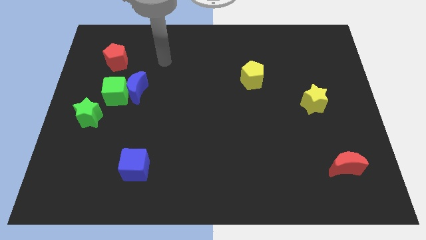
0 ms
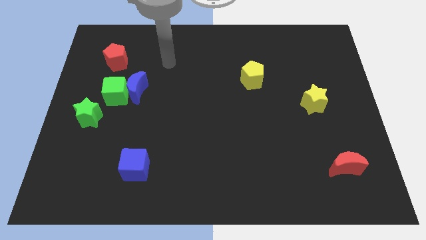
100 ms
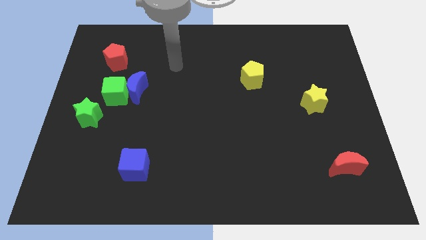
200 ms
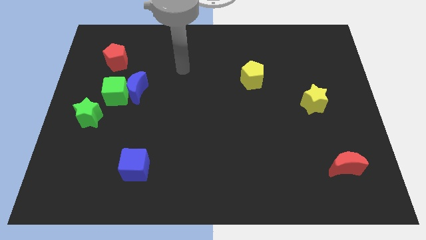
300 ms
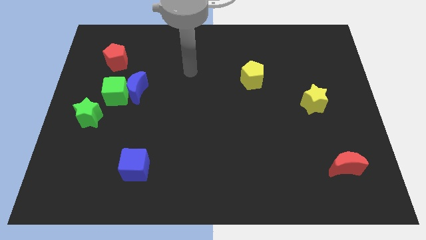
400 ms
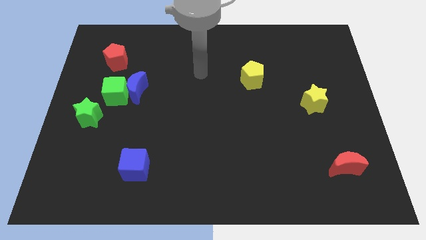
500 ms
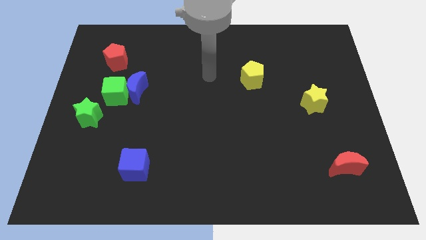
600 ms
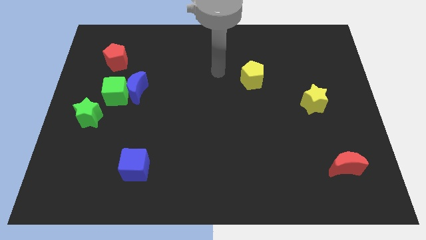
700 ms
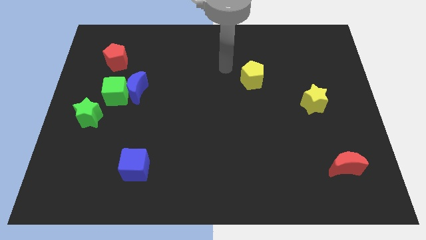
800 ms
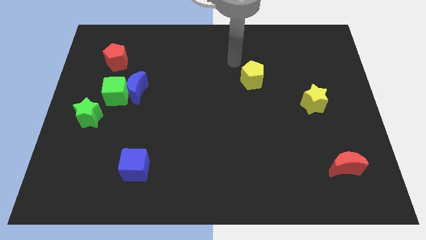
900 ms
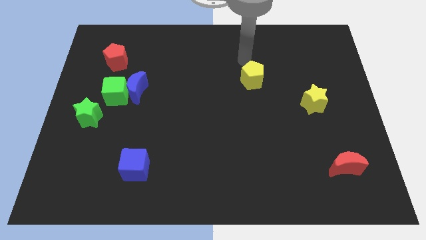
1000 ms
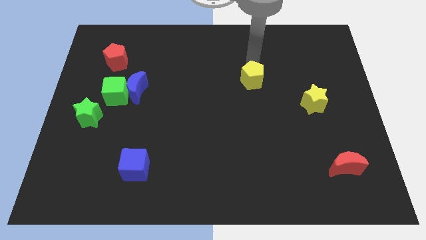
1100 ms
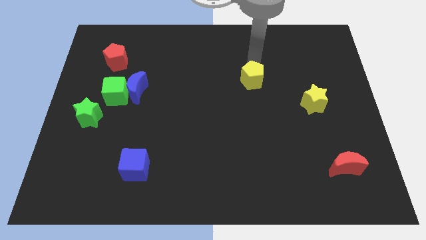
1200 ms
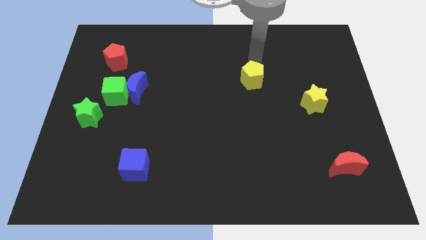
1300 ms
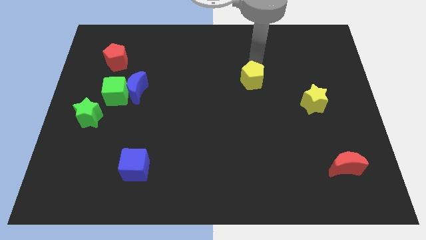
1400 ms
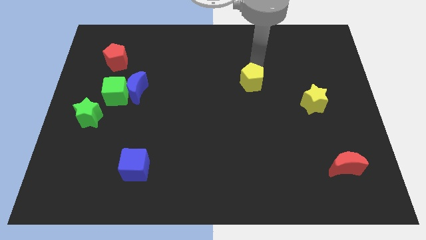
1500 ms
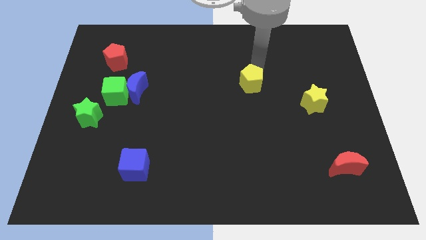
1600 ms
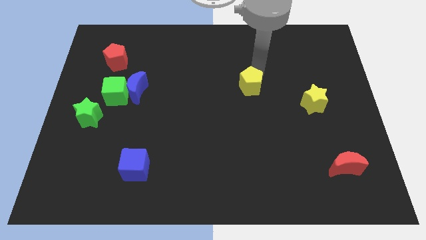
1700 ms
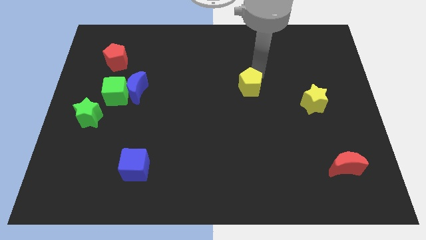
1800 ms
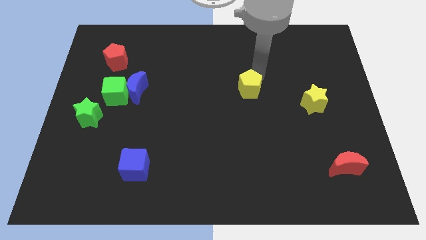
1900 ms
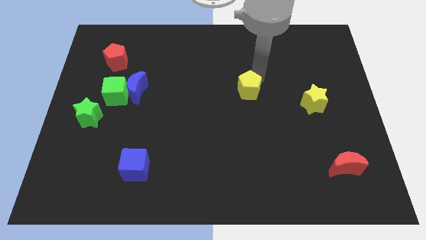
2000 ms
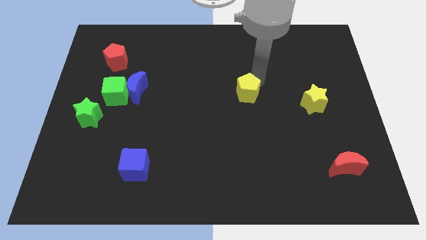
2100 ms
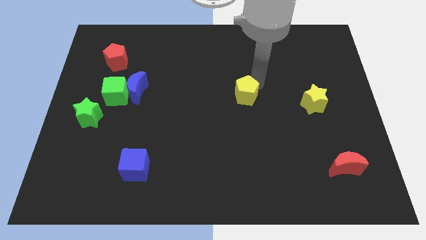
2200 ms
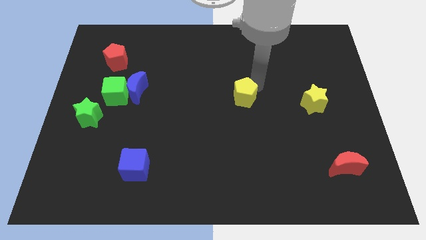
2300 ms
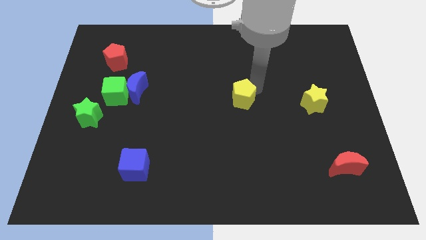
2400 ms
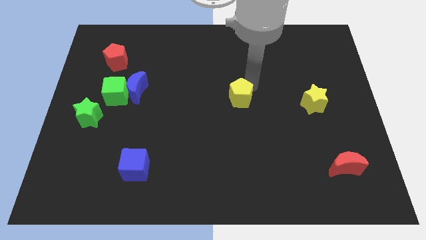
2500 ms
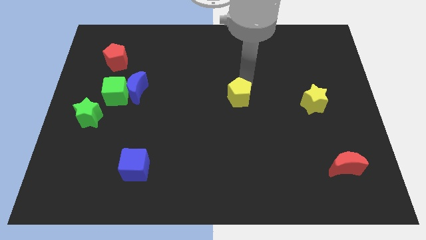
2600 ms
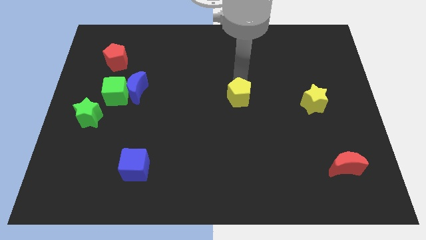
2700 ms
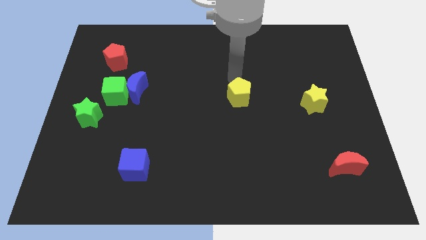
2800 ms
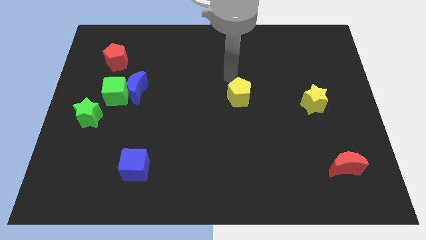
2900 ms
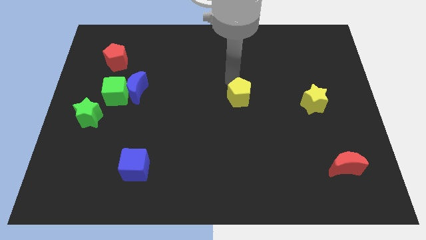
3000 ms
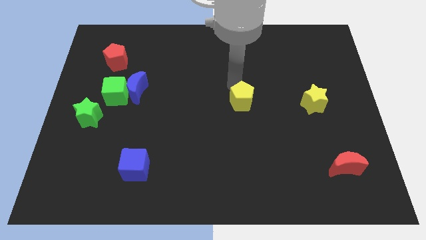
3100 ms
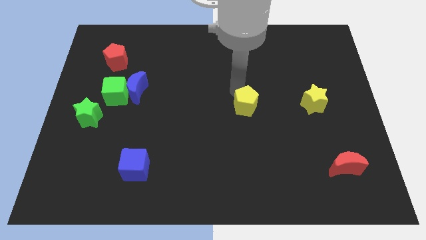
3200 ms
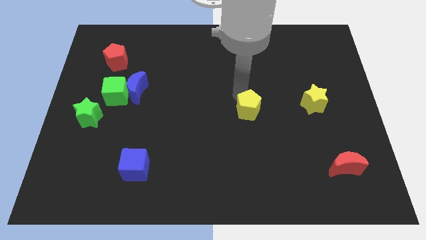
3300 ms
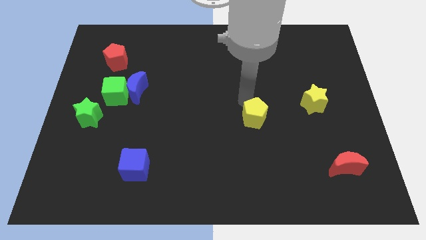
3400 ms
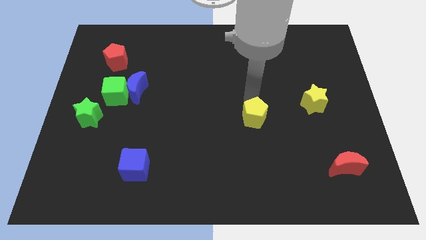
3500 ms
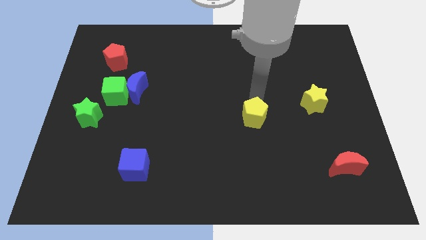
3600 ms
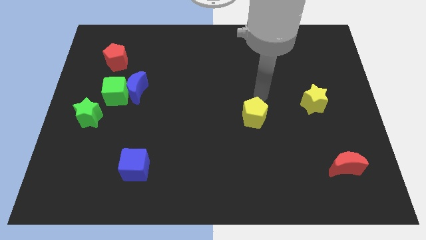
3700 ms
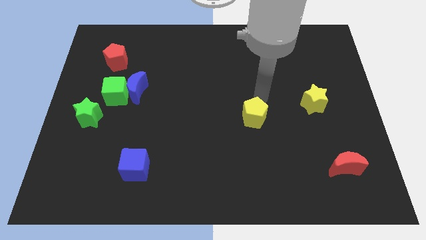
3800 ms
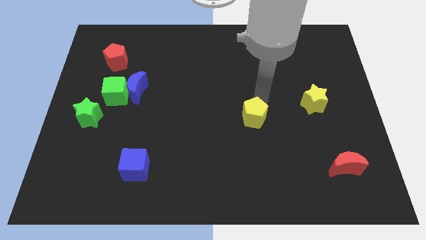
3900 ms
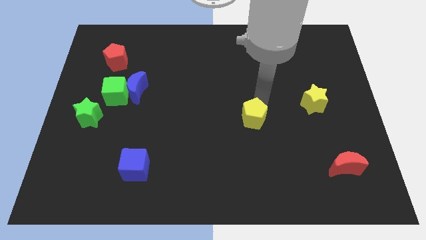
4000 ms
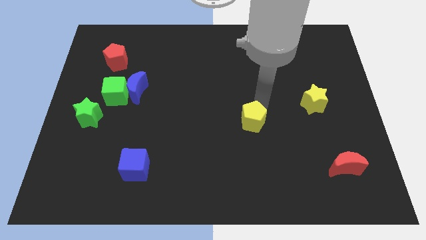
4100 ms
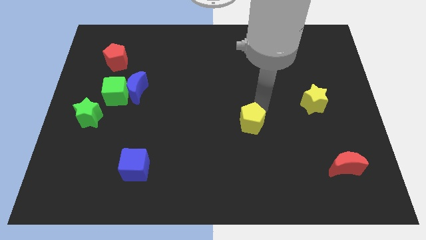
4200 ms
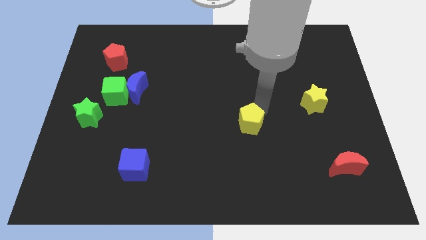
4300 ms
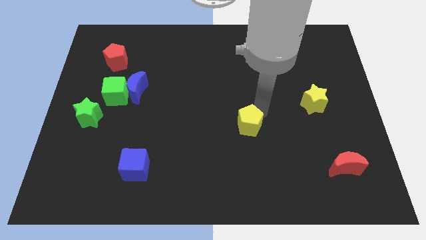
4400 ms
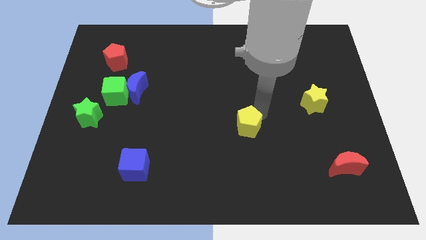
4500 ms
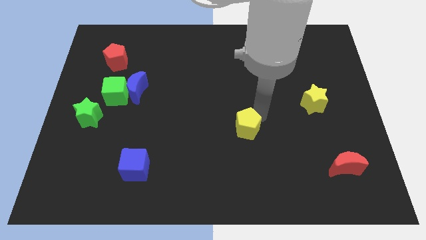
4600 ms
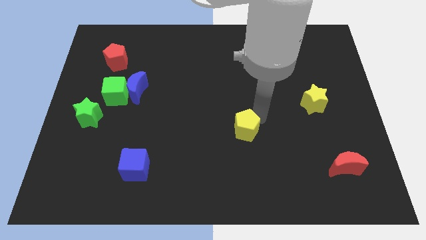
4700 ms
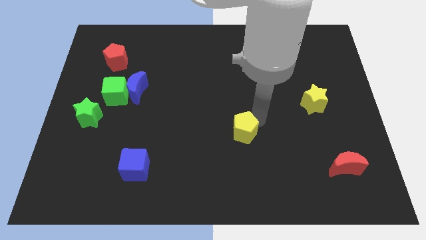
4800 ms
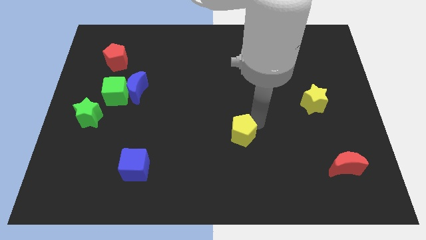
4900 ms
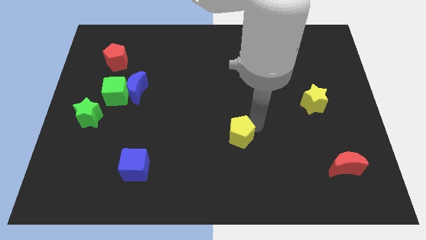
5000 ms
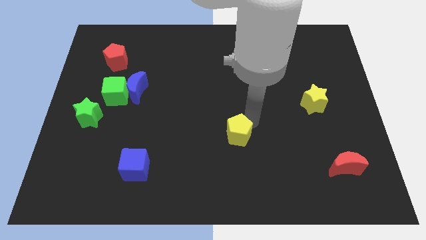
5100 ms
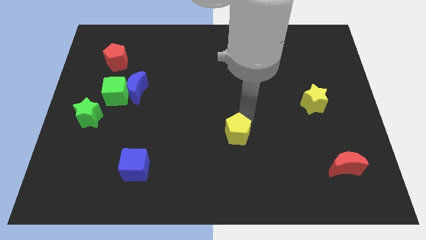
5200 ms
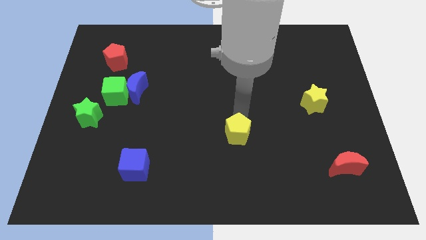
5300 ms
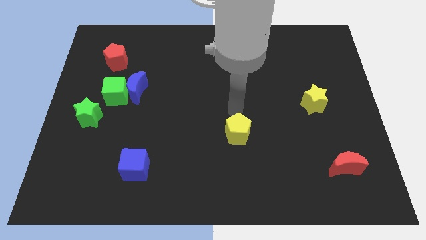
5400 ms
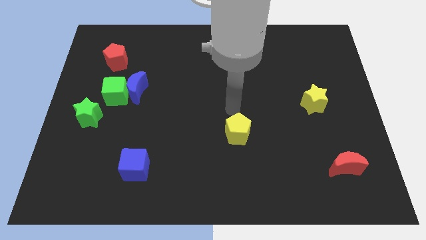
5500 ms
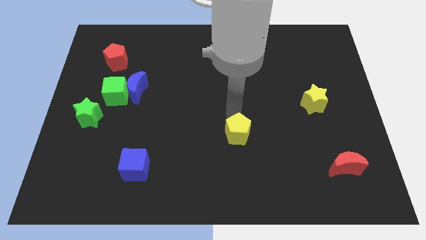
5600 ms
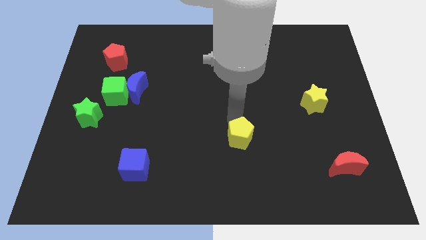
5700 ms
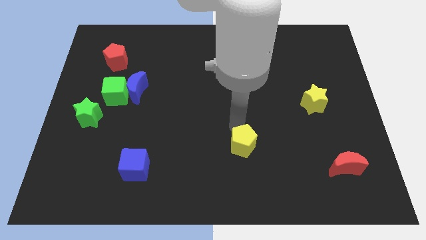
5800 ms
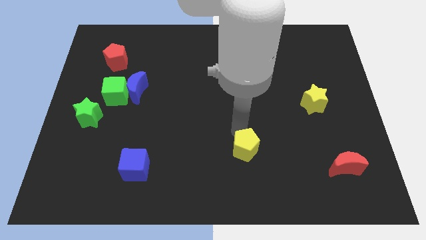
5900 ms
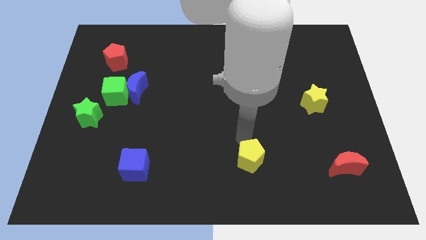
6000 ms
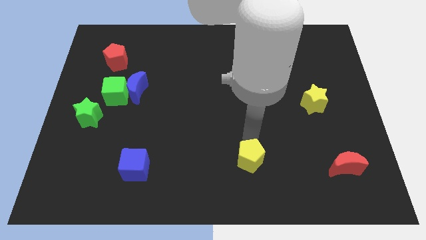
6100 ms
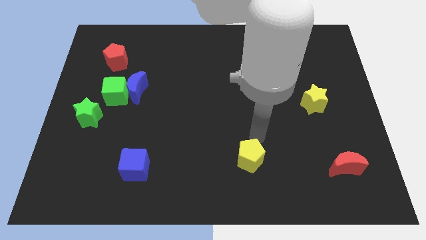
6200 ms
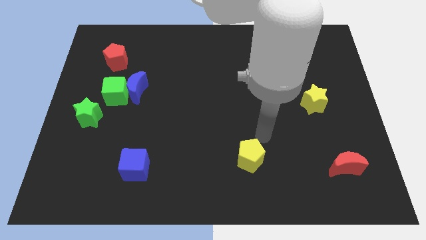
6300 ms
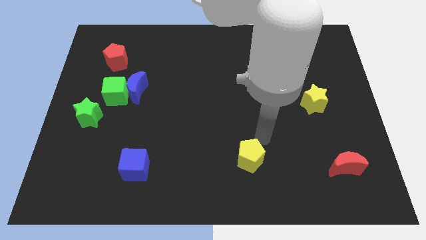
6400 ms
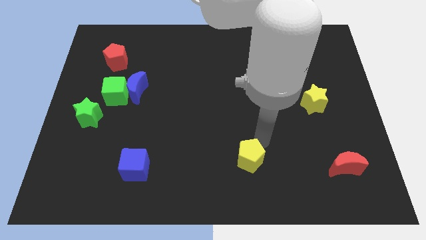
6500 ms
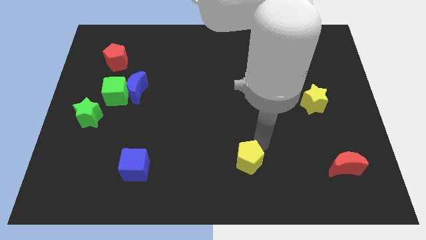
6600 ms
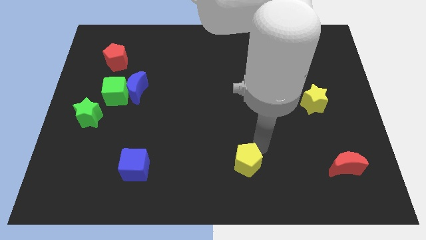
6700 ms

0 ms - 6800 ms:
move the yellow pentagon to the bottom
